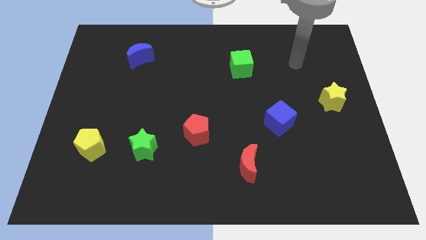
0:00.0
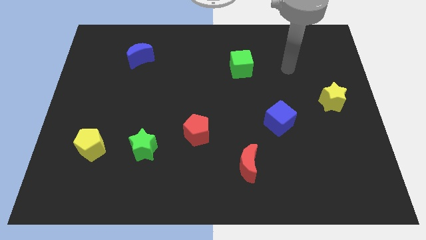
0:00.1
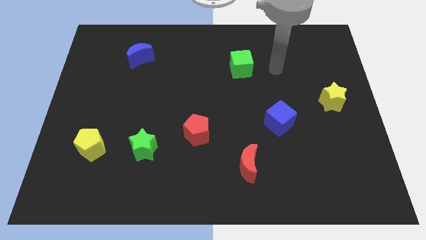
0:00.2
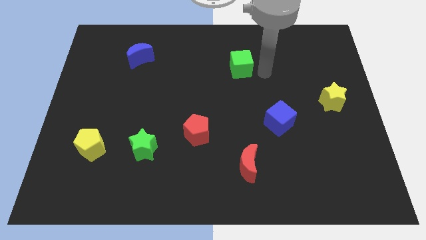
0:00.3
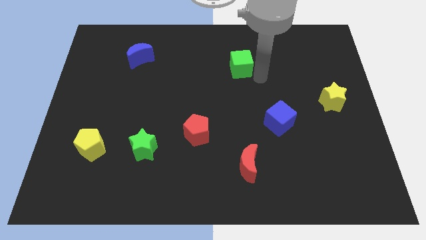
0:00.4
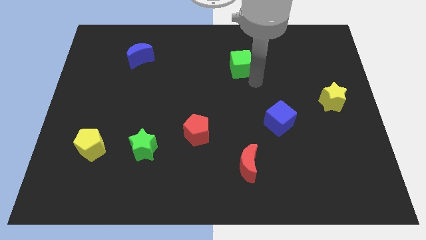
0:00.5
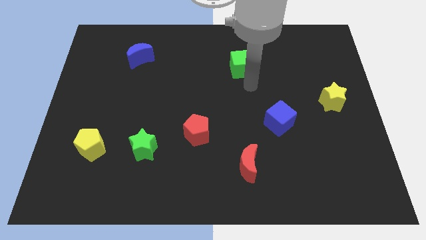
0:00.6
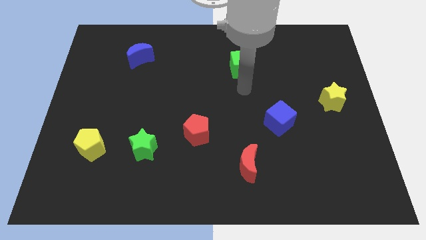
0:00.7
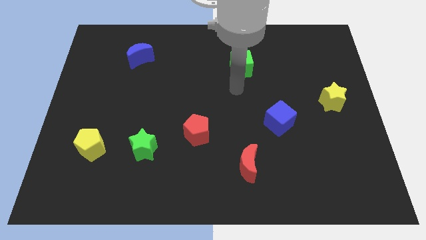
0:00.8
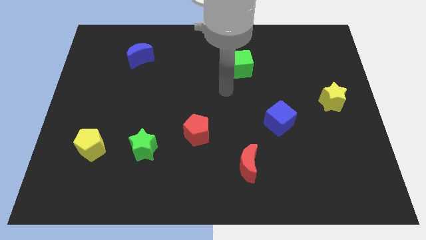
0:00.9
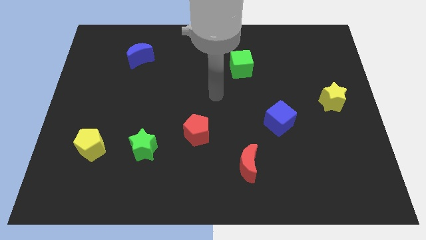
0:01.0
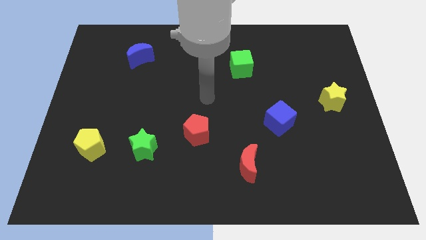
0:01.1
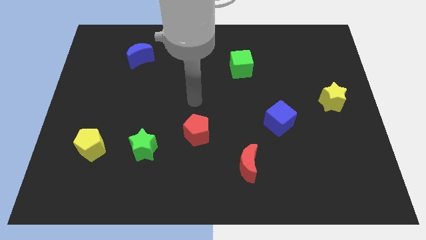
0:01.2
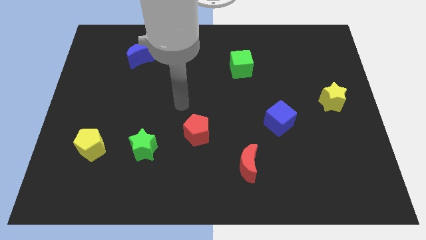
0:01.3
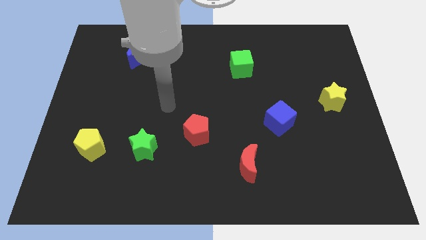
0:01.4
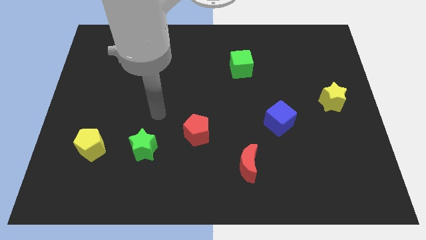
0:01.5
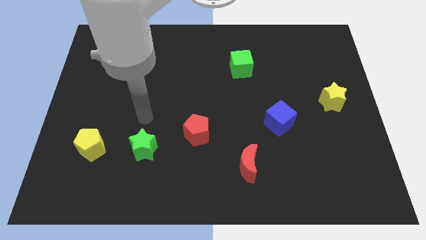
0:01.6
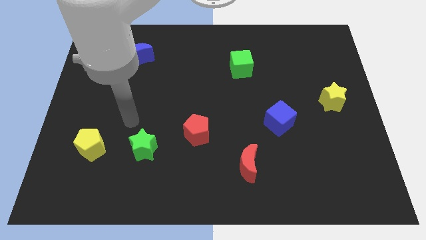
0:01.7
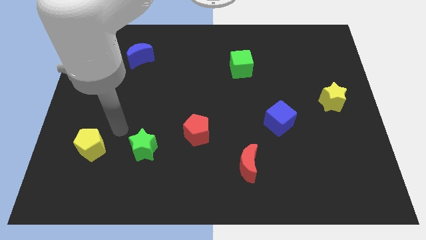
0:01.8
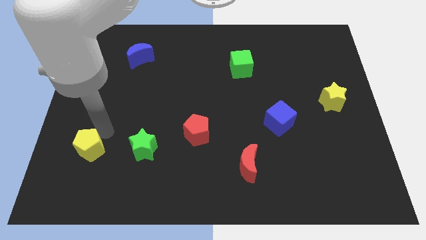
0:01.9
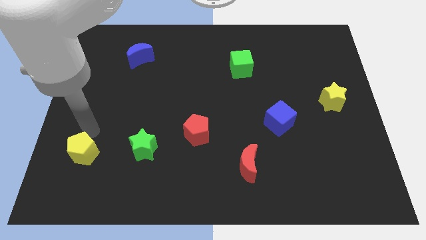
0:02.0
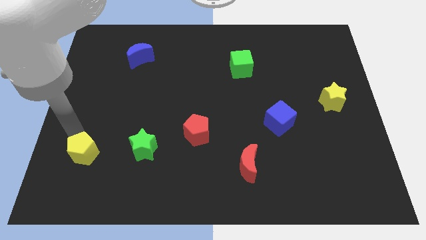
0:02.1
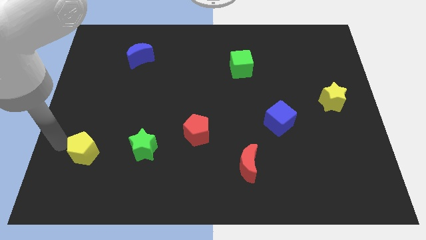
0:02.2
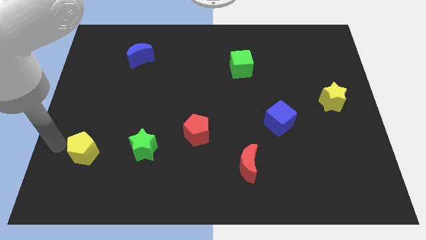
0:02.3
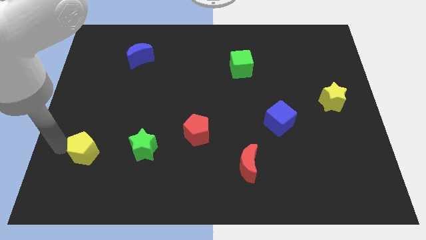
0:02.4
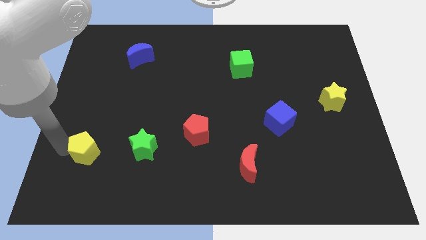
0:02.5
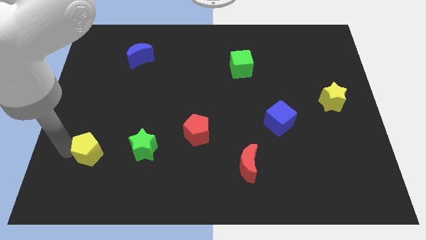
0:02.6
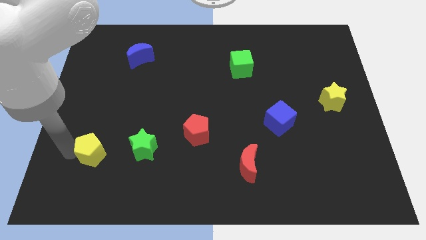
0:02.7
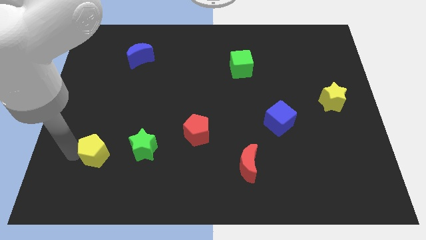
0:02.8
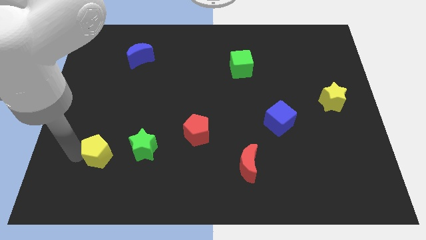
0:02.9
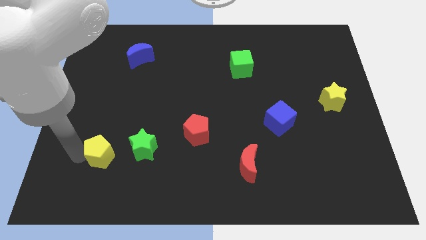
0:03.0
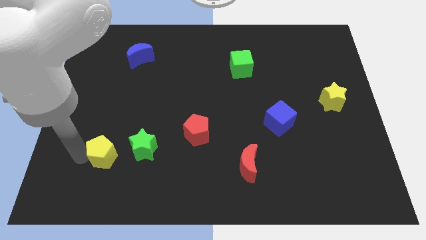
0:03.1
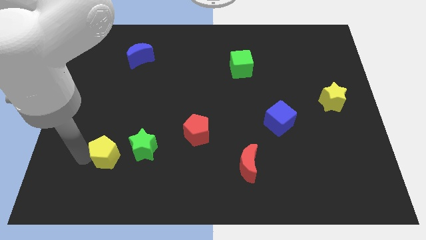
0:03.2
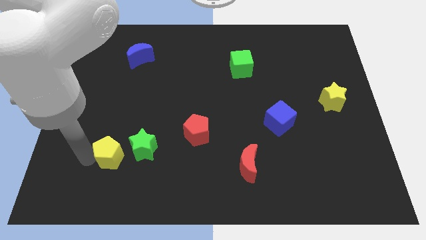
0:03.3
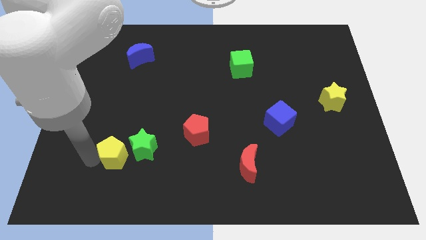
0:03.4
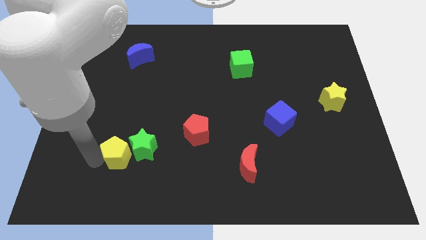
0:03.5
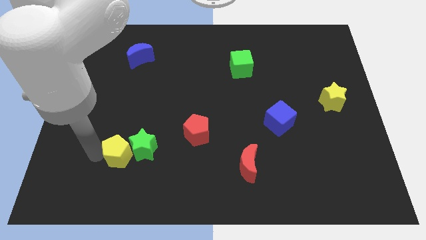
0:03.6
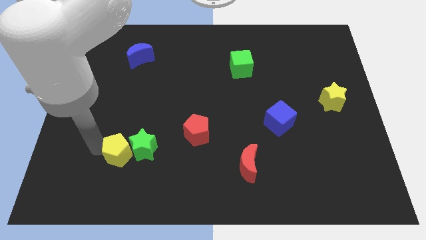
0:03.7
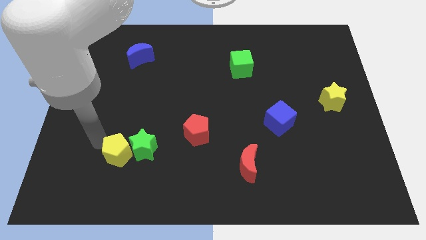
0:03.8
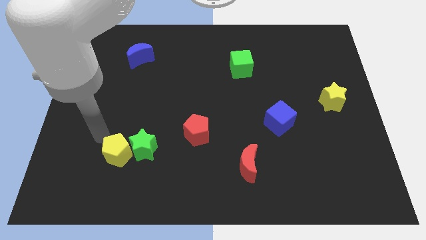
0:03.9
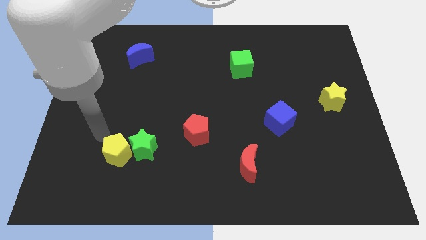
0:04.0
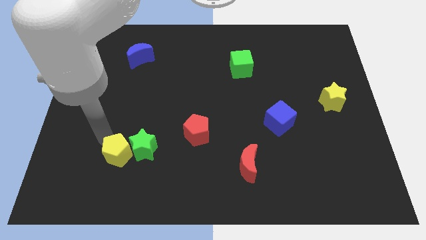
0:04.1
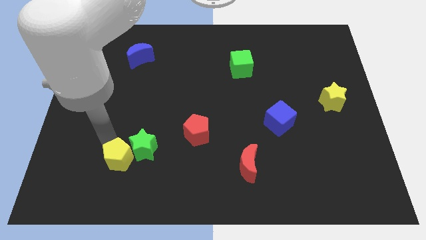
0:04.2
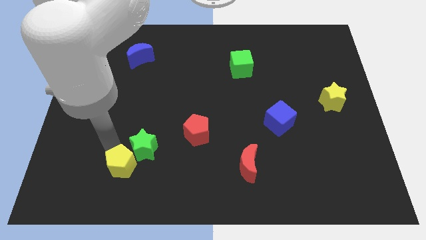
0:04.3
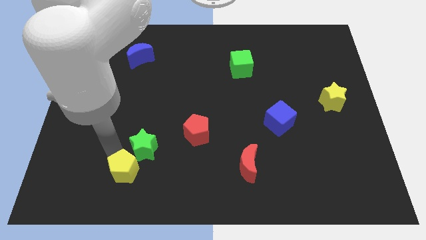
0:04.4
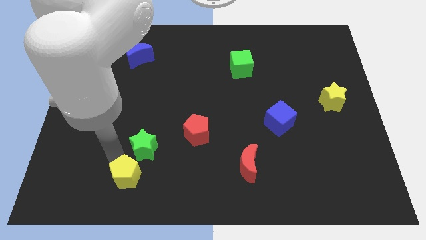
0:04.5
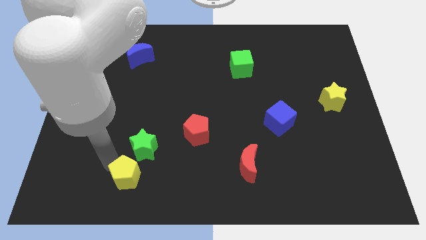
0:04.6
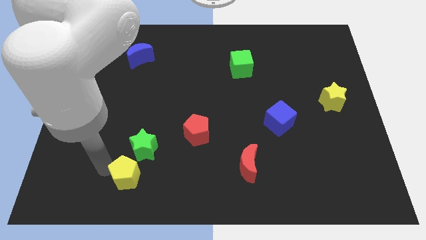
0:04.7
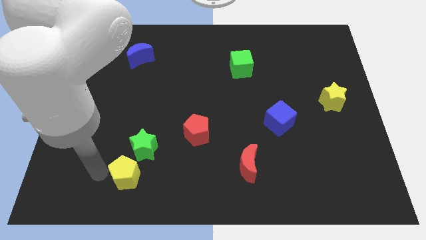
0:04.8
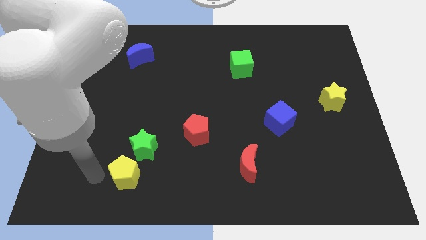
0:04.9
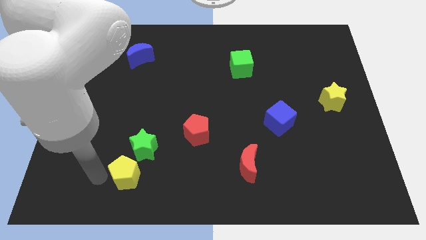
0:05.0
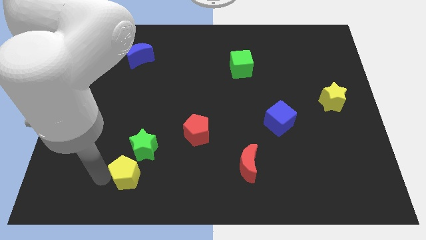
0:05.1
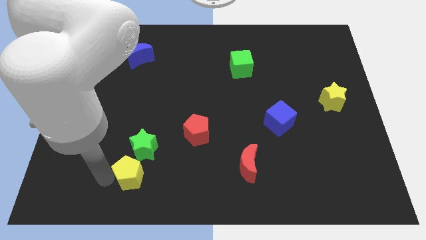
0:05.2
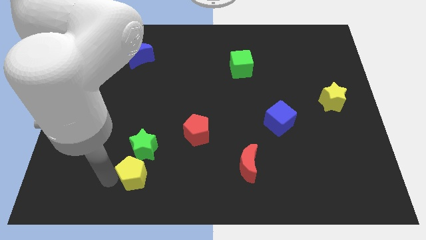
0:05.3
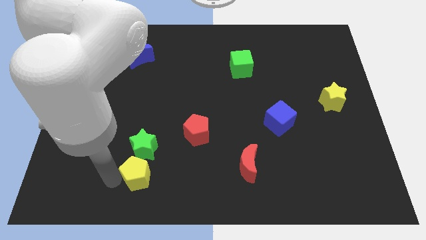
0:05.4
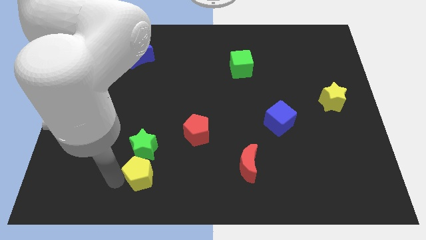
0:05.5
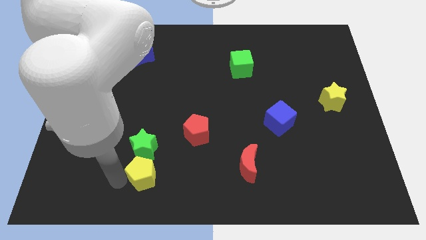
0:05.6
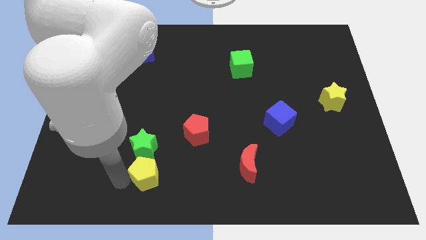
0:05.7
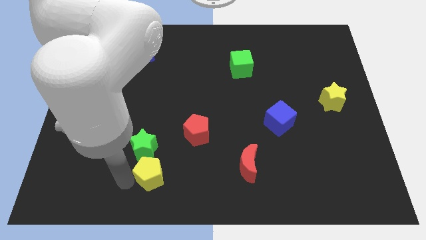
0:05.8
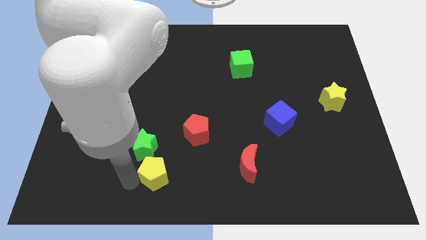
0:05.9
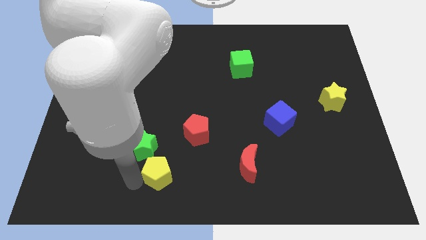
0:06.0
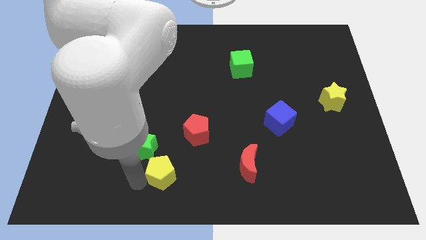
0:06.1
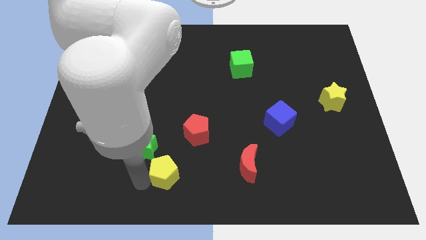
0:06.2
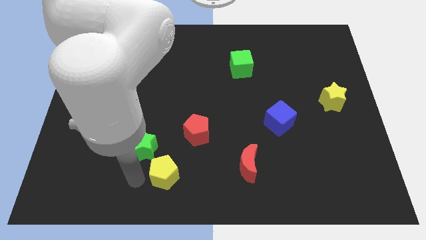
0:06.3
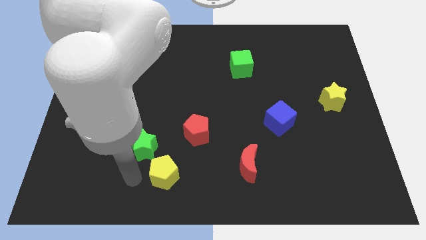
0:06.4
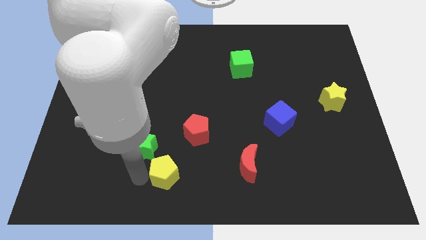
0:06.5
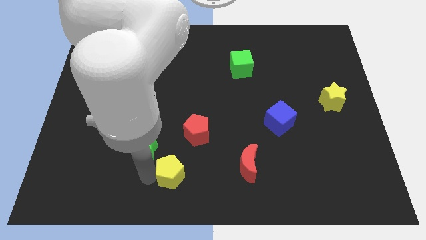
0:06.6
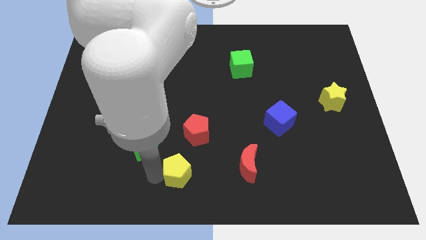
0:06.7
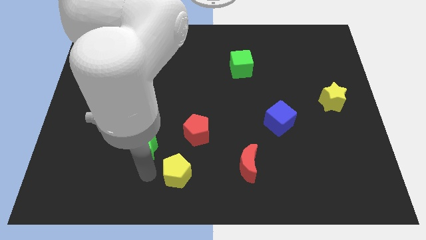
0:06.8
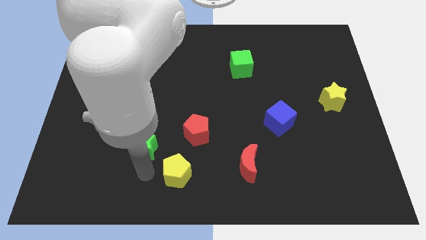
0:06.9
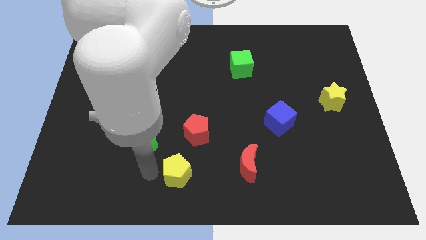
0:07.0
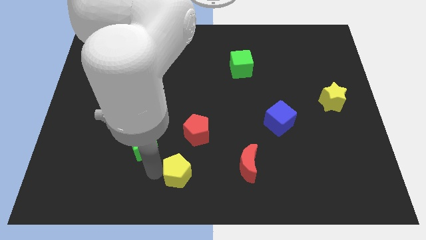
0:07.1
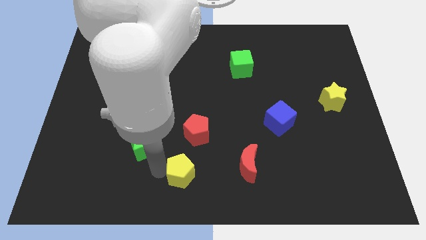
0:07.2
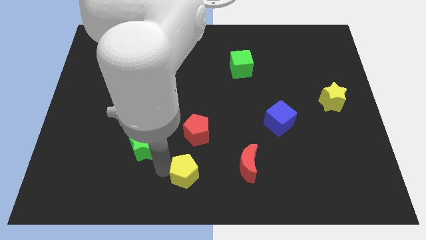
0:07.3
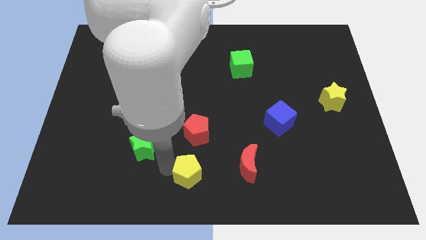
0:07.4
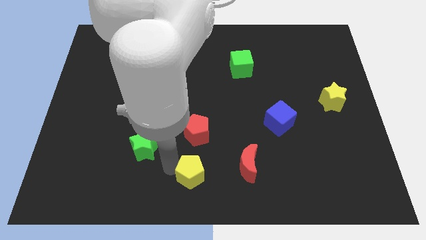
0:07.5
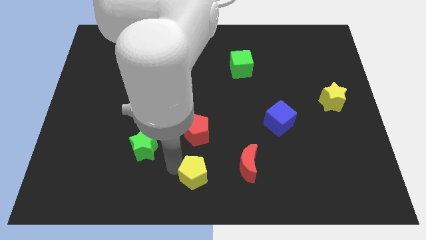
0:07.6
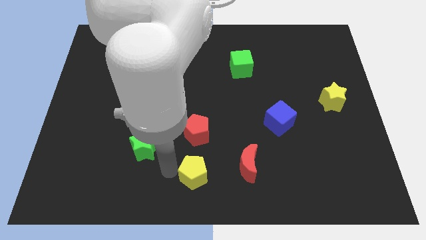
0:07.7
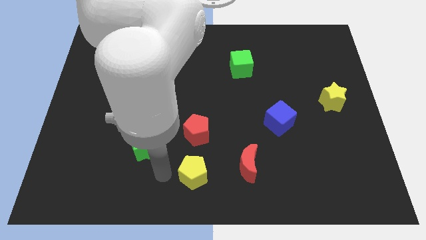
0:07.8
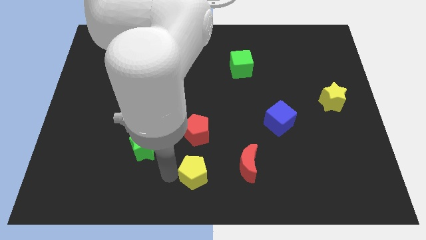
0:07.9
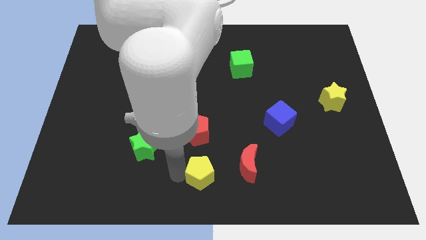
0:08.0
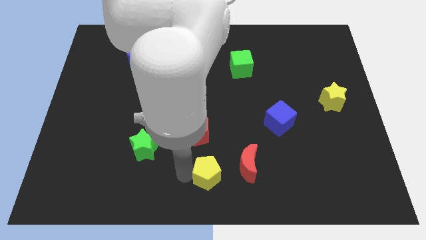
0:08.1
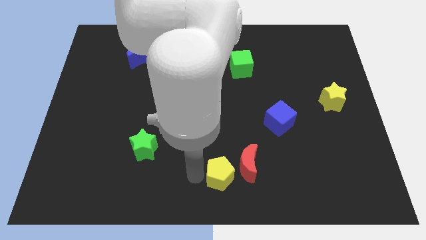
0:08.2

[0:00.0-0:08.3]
move the yellow pentagon close to the red moon
